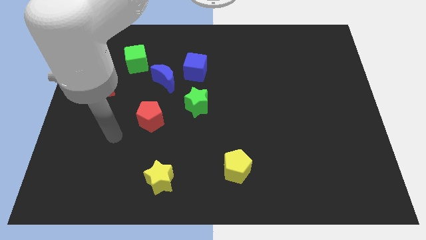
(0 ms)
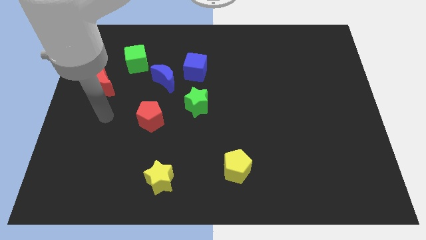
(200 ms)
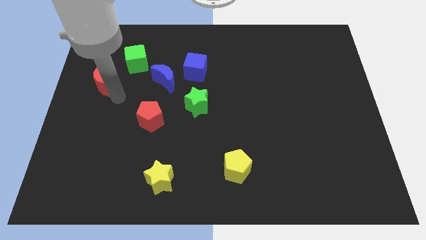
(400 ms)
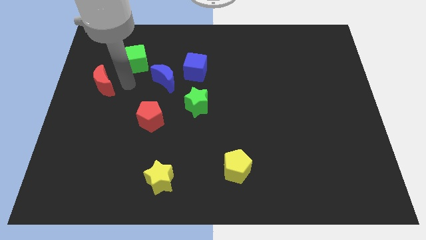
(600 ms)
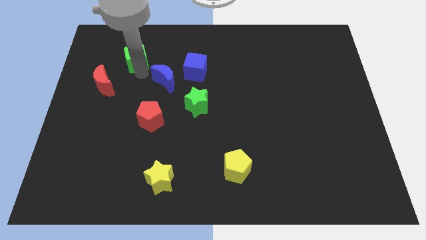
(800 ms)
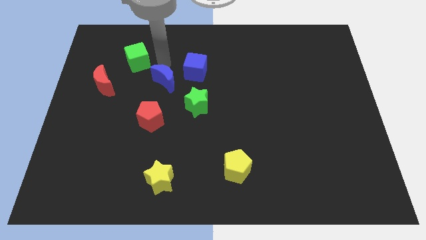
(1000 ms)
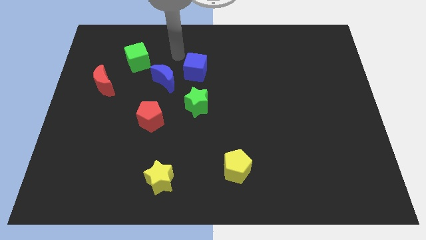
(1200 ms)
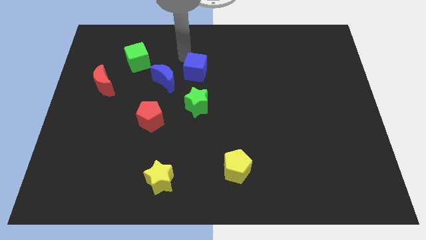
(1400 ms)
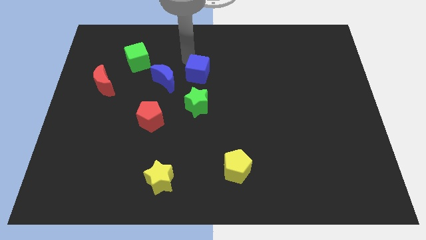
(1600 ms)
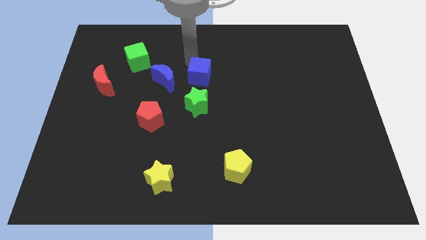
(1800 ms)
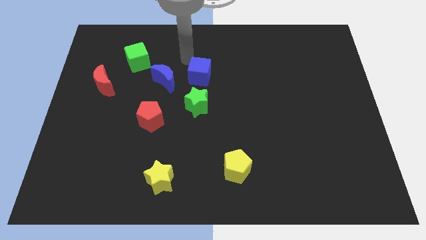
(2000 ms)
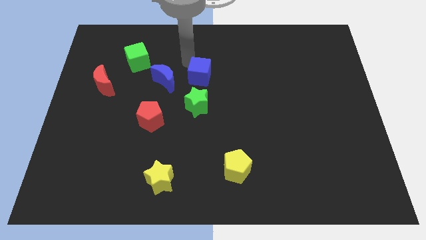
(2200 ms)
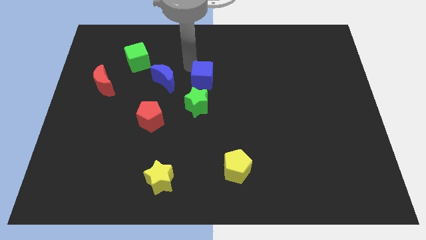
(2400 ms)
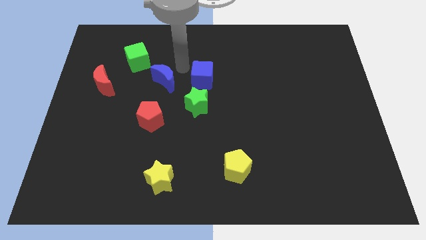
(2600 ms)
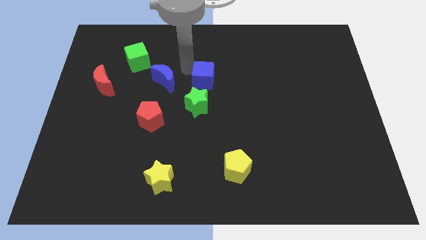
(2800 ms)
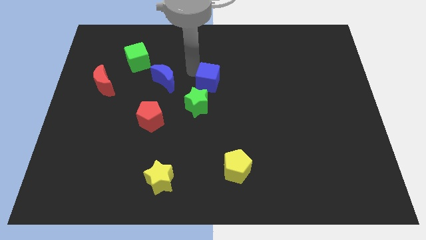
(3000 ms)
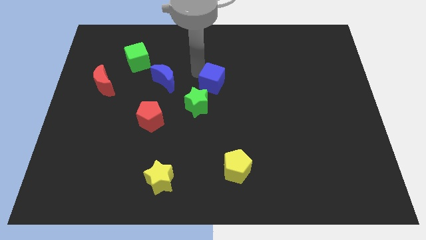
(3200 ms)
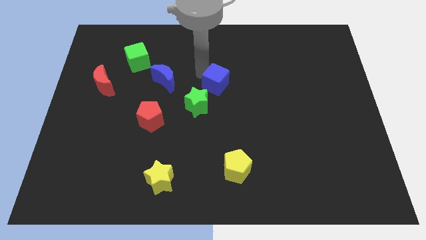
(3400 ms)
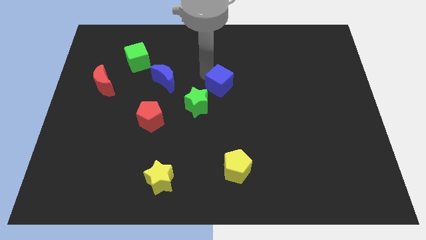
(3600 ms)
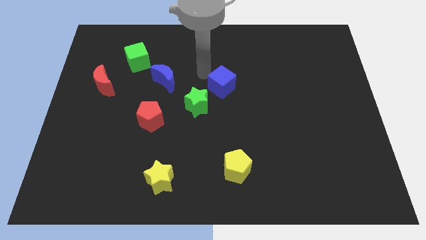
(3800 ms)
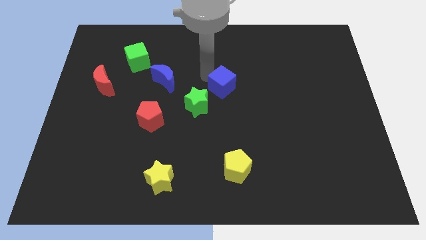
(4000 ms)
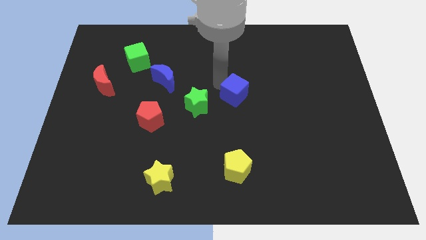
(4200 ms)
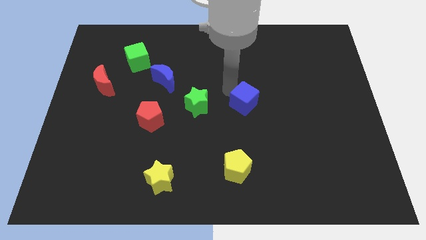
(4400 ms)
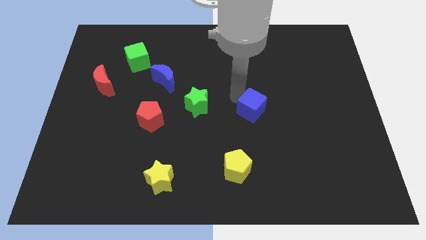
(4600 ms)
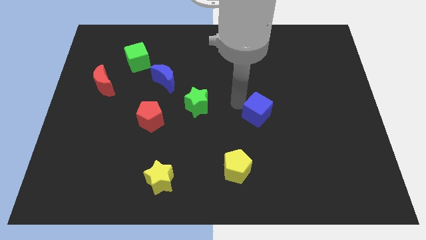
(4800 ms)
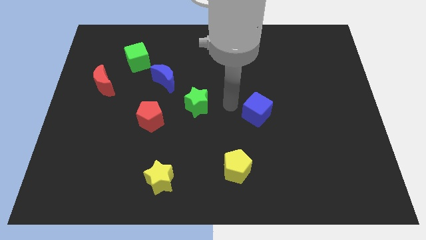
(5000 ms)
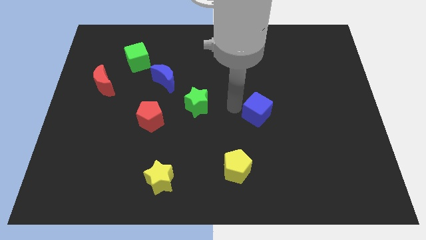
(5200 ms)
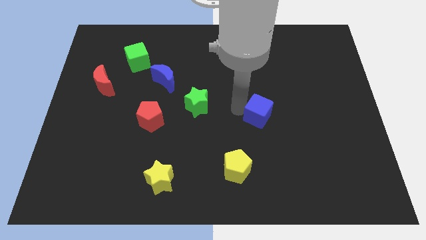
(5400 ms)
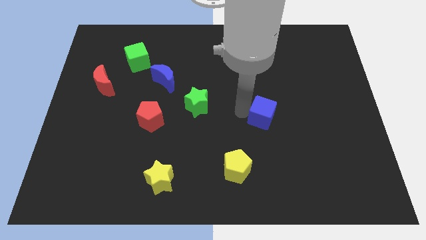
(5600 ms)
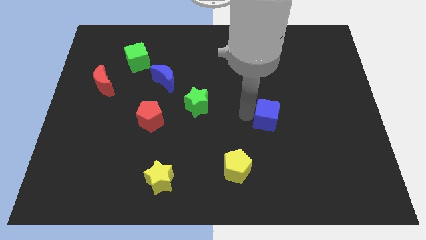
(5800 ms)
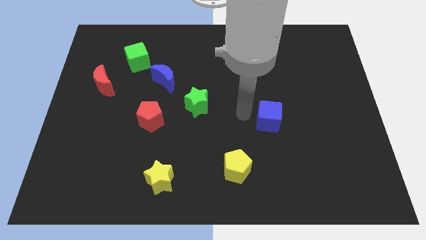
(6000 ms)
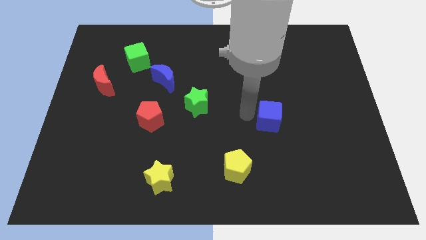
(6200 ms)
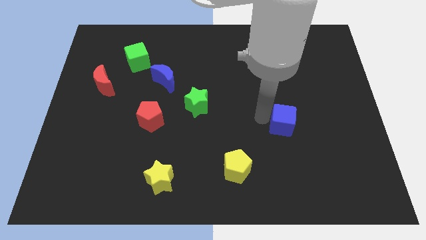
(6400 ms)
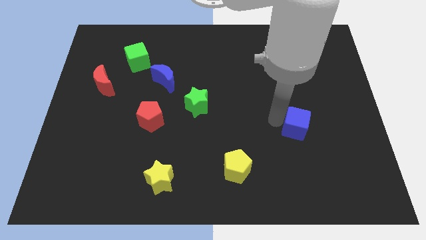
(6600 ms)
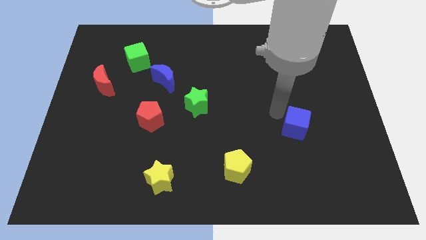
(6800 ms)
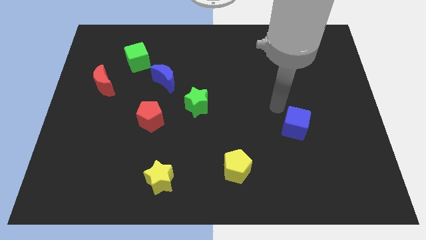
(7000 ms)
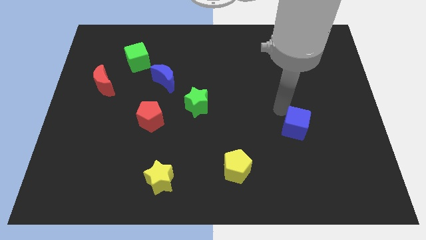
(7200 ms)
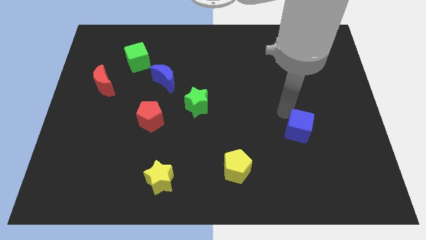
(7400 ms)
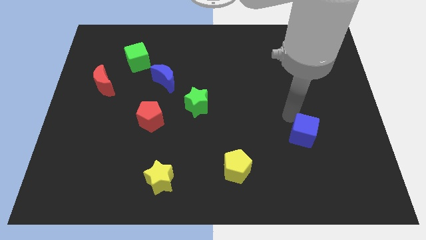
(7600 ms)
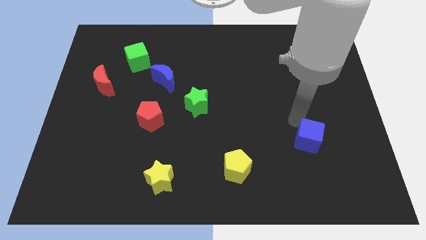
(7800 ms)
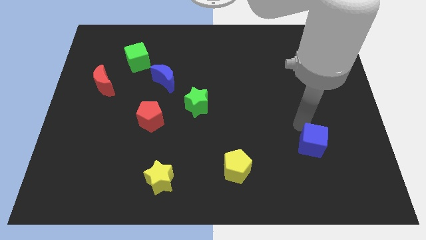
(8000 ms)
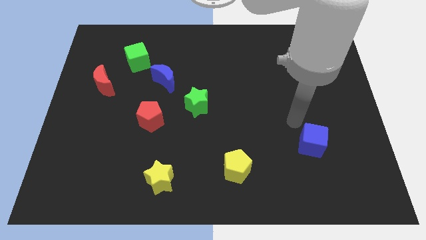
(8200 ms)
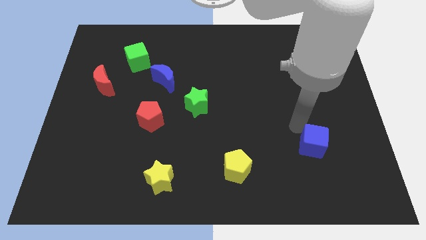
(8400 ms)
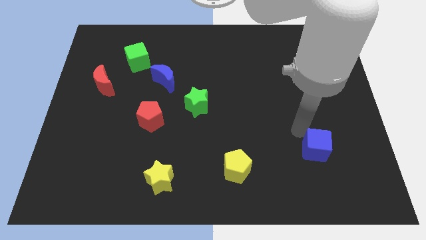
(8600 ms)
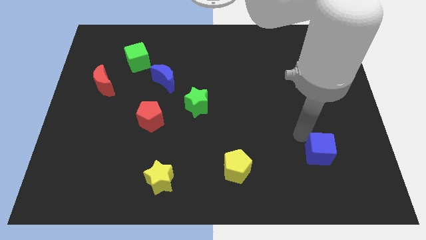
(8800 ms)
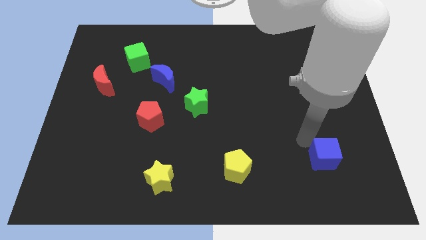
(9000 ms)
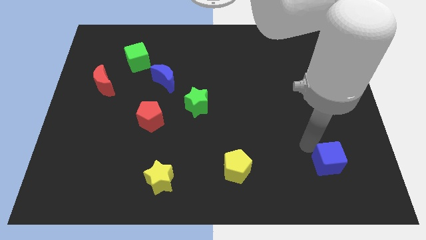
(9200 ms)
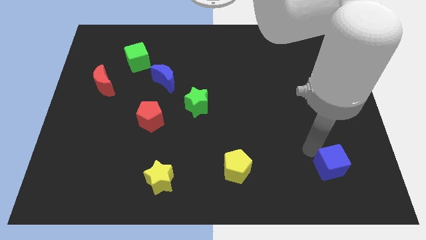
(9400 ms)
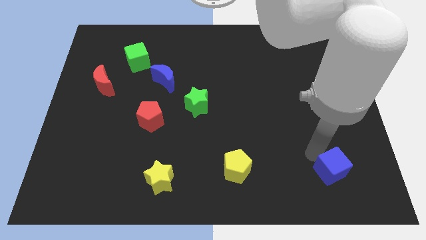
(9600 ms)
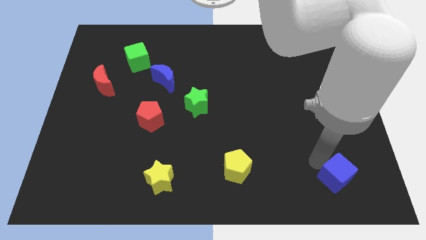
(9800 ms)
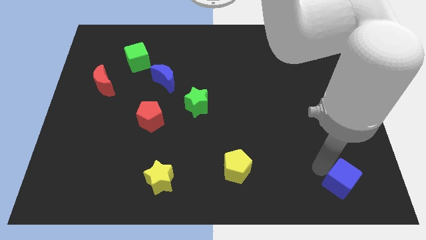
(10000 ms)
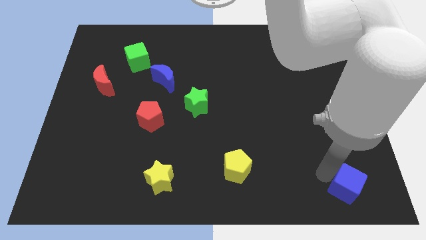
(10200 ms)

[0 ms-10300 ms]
push the blue cube to the bottom right corner

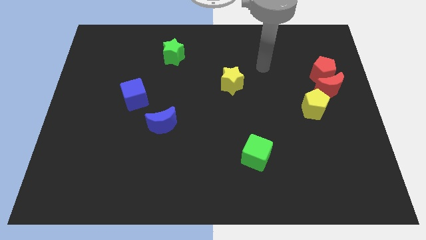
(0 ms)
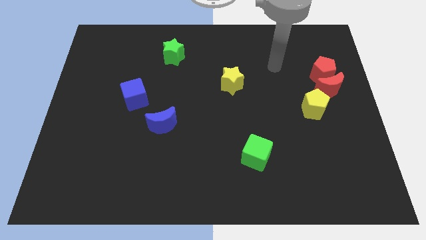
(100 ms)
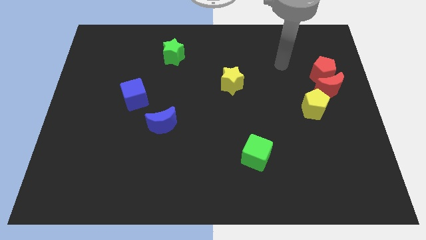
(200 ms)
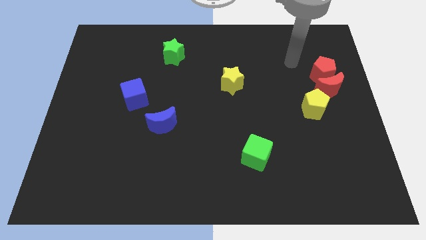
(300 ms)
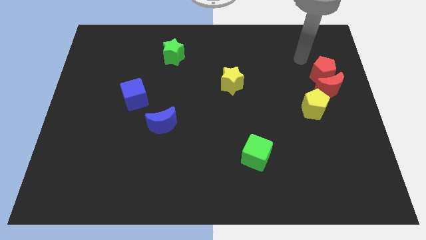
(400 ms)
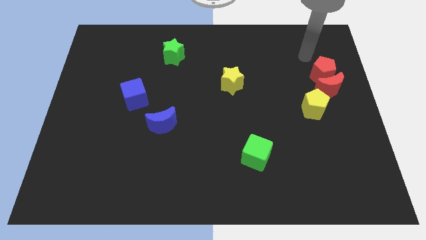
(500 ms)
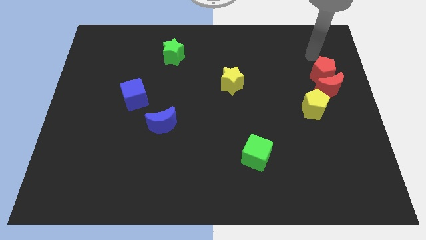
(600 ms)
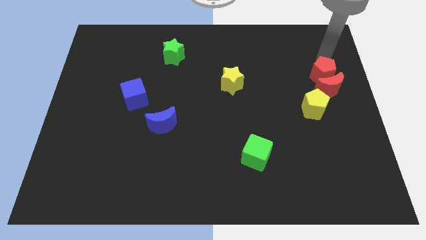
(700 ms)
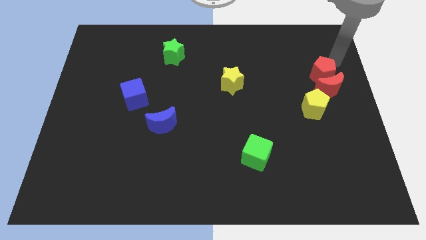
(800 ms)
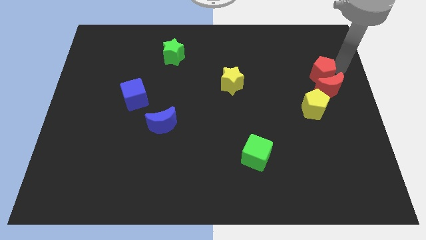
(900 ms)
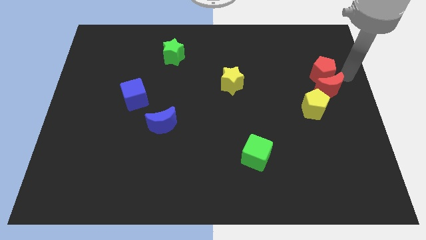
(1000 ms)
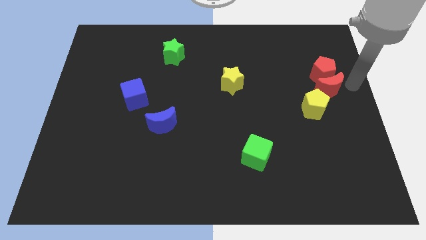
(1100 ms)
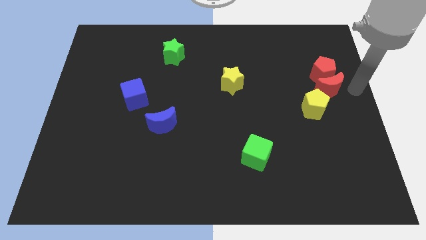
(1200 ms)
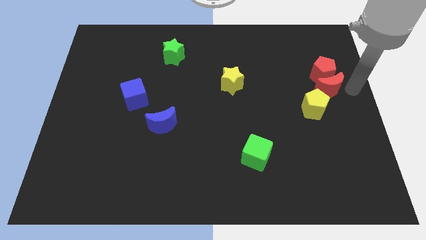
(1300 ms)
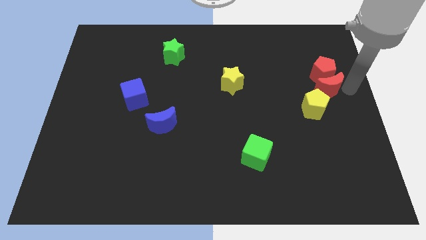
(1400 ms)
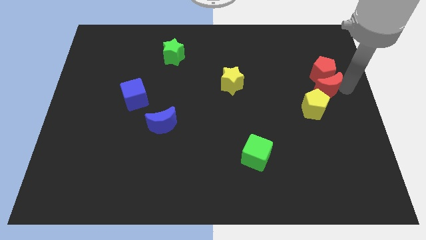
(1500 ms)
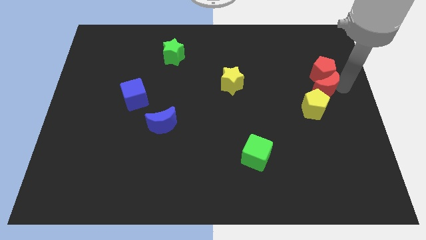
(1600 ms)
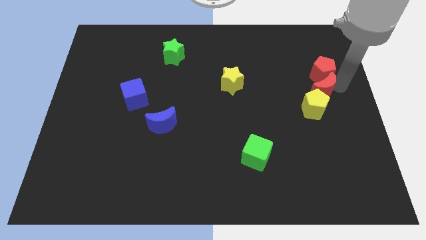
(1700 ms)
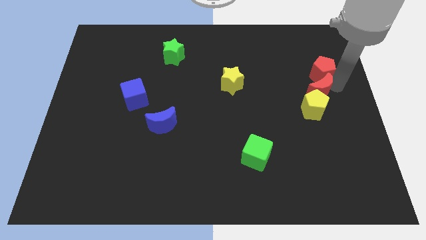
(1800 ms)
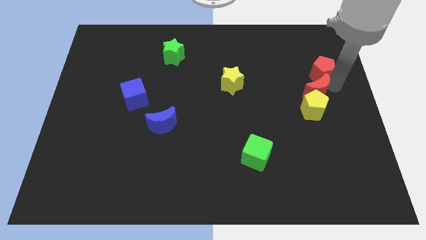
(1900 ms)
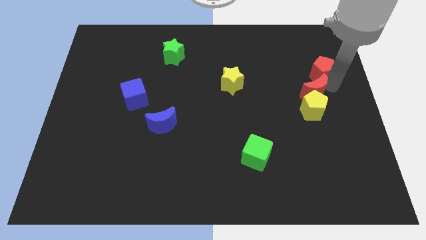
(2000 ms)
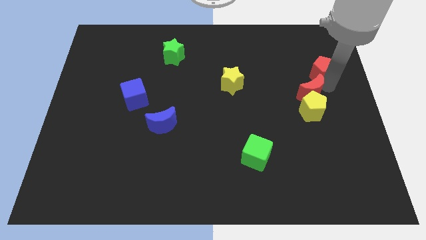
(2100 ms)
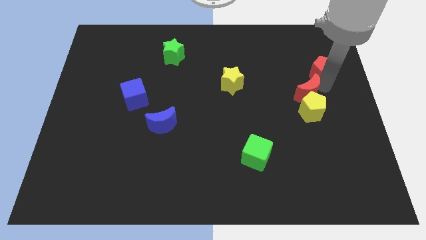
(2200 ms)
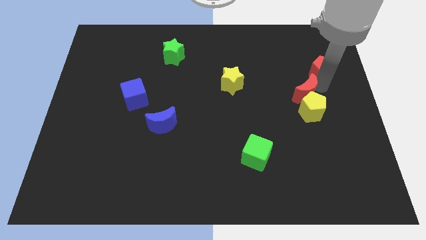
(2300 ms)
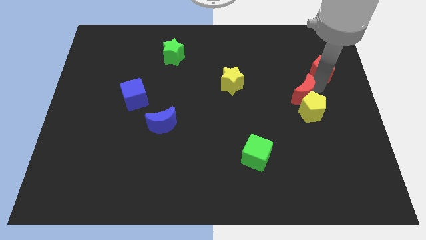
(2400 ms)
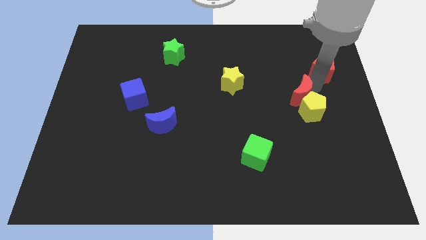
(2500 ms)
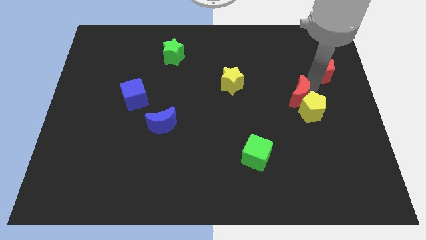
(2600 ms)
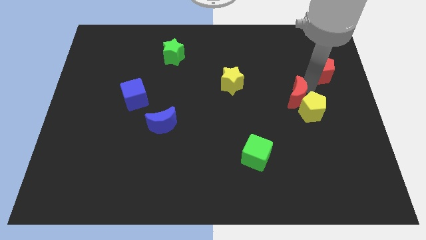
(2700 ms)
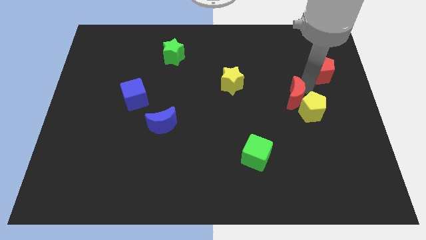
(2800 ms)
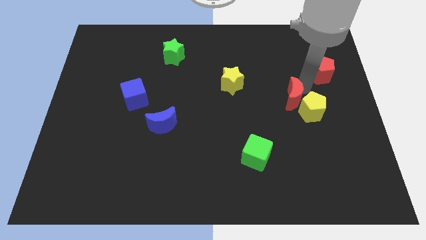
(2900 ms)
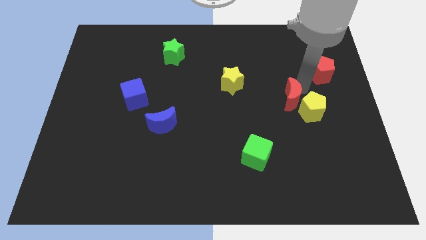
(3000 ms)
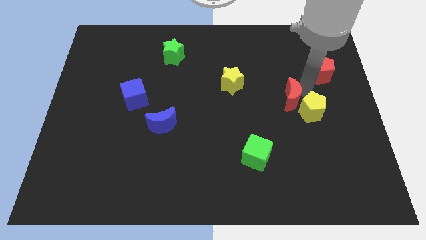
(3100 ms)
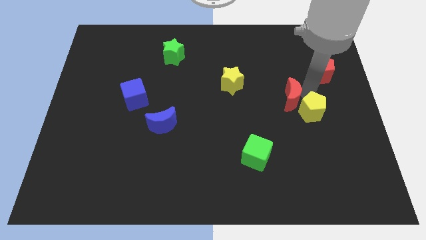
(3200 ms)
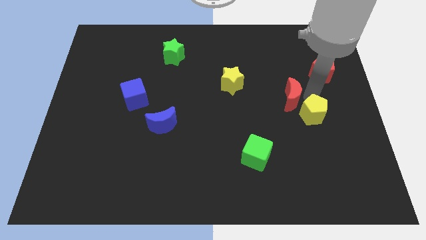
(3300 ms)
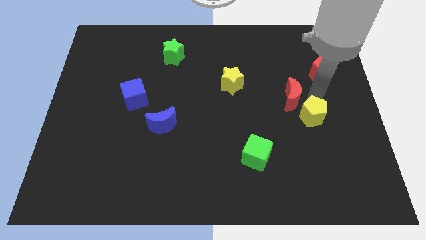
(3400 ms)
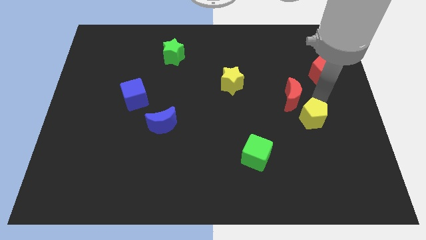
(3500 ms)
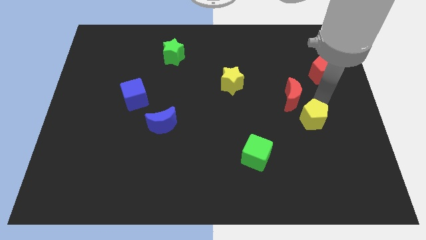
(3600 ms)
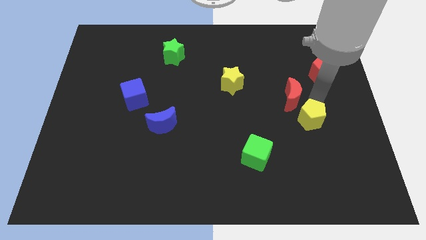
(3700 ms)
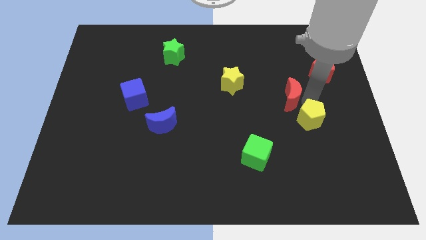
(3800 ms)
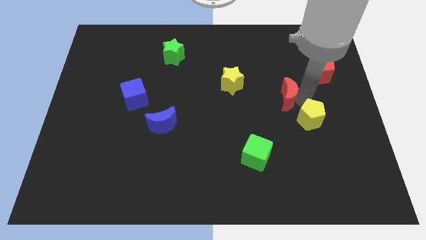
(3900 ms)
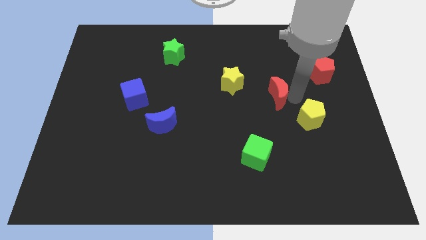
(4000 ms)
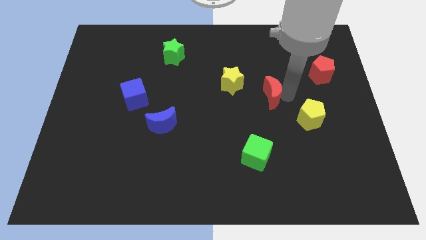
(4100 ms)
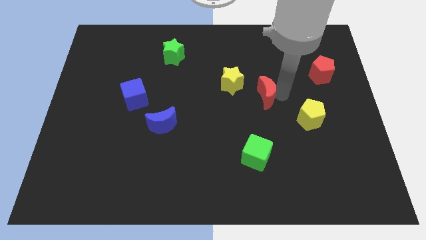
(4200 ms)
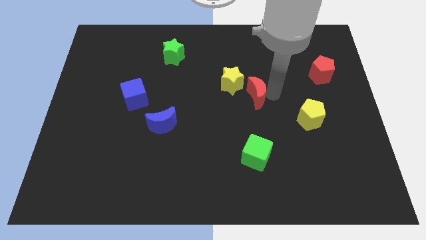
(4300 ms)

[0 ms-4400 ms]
move the red moon to the center of the board
